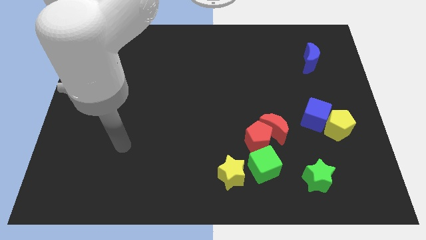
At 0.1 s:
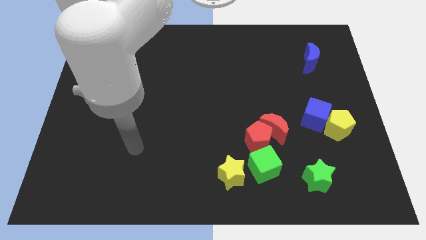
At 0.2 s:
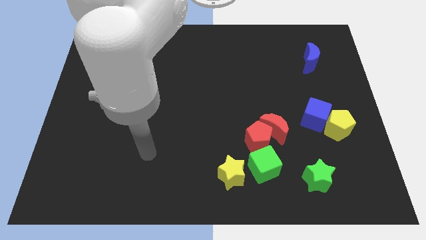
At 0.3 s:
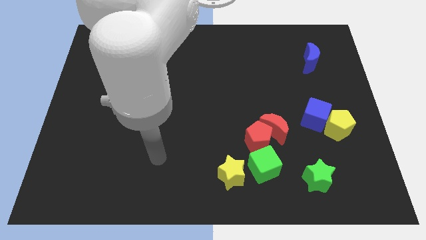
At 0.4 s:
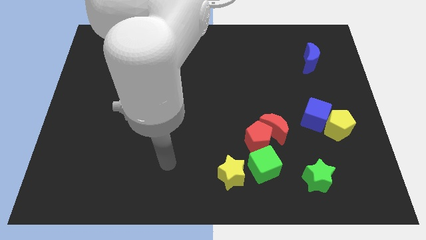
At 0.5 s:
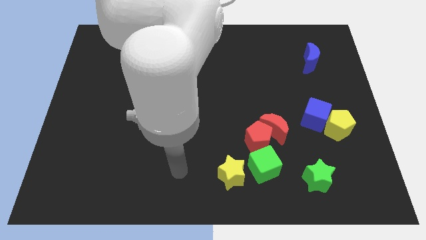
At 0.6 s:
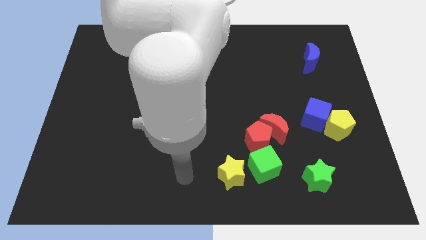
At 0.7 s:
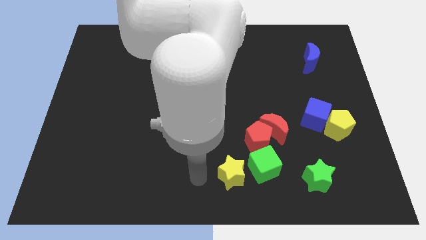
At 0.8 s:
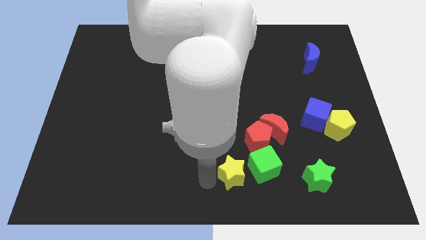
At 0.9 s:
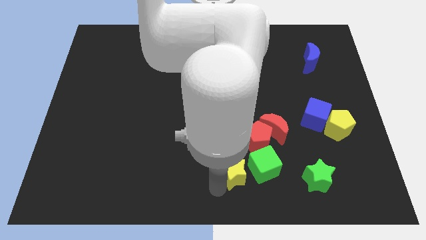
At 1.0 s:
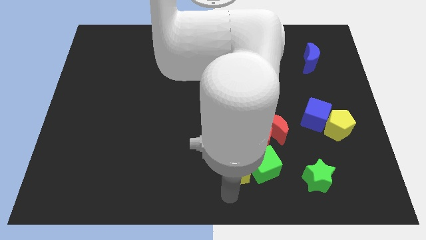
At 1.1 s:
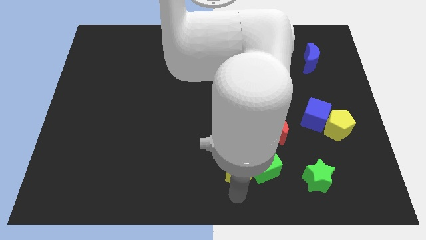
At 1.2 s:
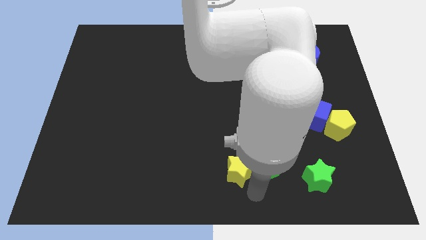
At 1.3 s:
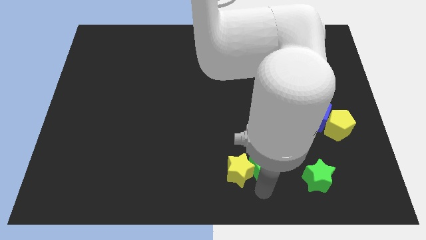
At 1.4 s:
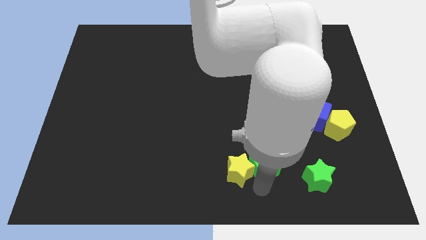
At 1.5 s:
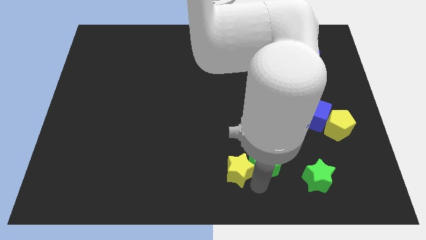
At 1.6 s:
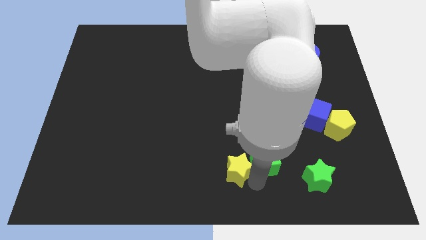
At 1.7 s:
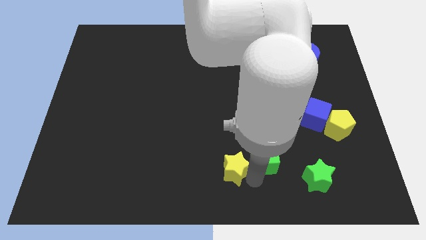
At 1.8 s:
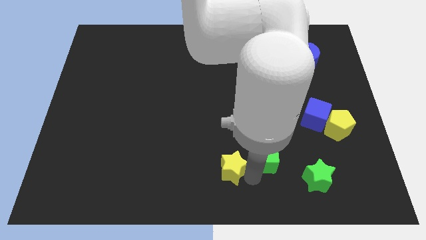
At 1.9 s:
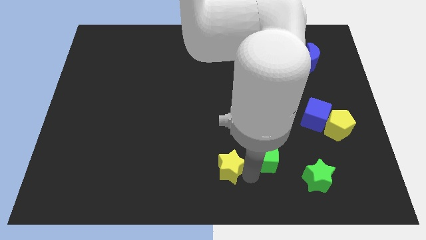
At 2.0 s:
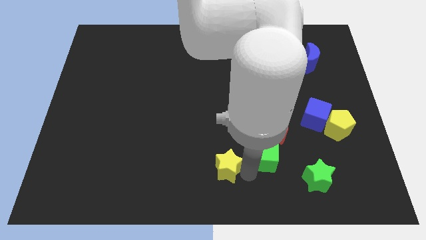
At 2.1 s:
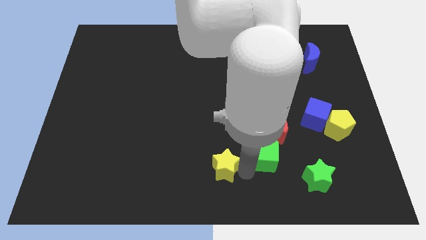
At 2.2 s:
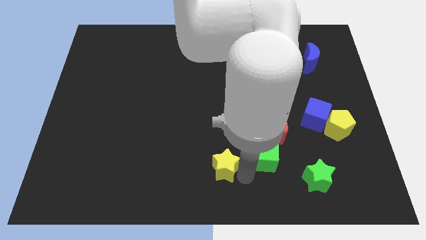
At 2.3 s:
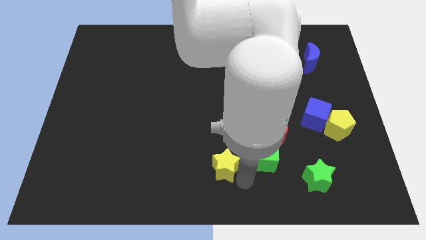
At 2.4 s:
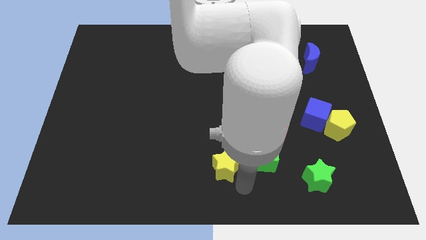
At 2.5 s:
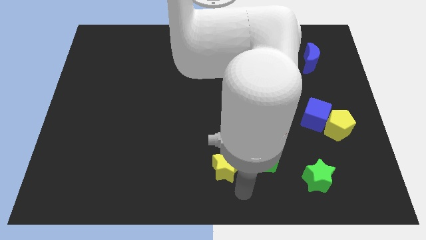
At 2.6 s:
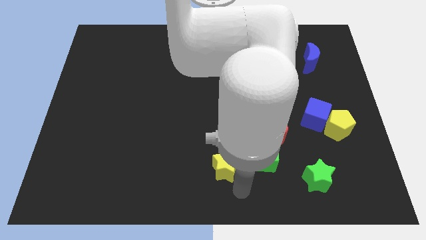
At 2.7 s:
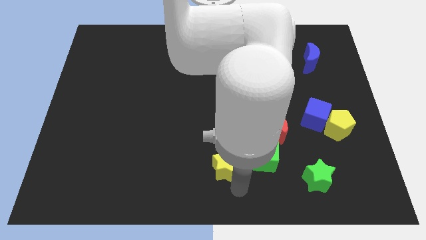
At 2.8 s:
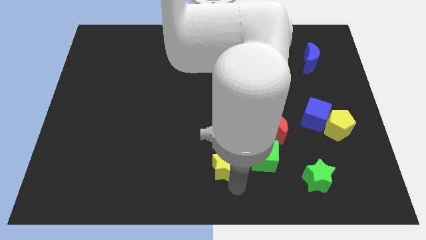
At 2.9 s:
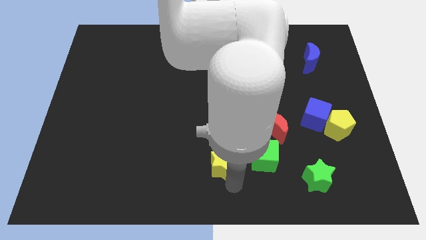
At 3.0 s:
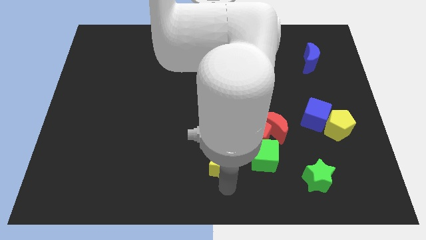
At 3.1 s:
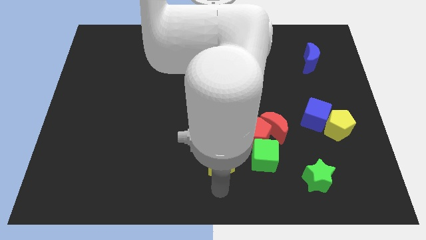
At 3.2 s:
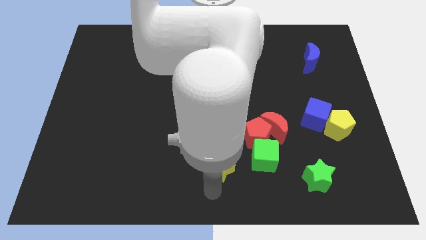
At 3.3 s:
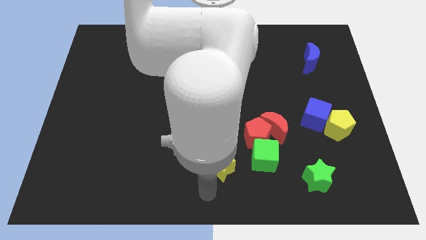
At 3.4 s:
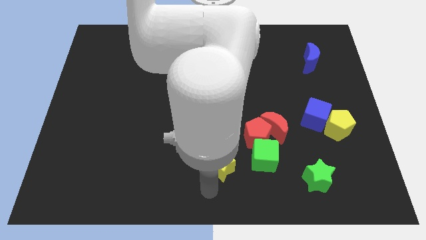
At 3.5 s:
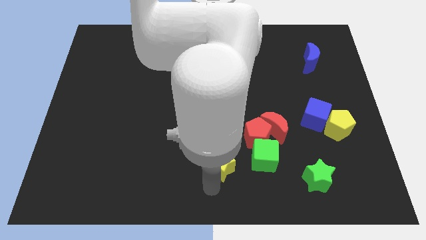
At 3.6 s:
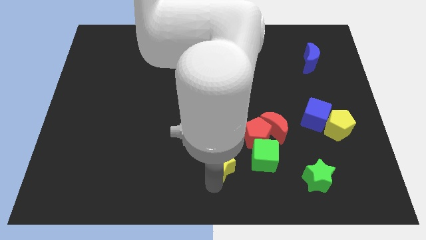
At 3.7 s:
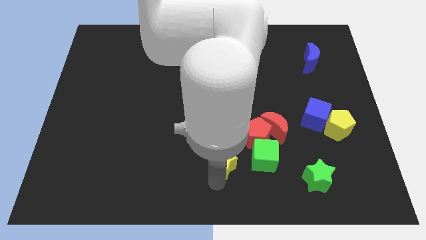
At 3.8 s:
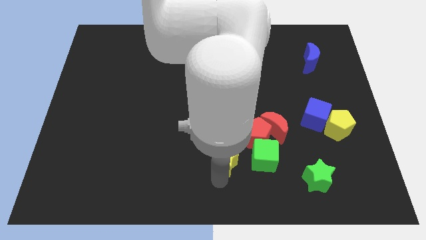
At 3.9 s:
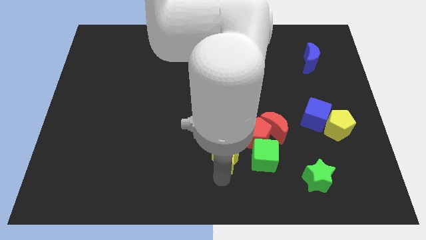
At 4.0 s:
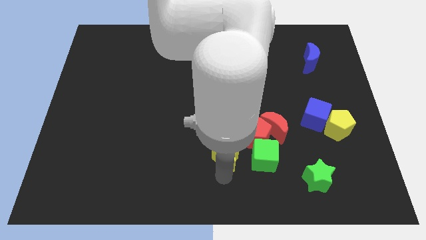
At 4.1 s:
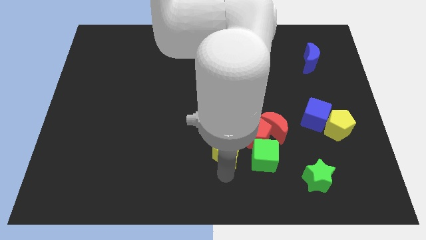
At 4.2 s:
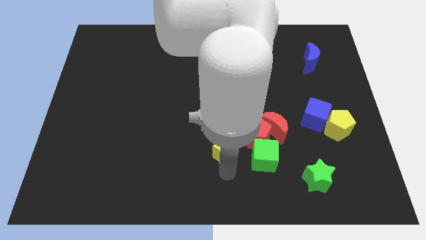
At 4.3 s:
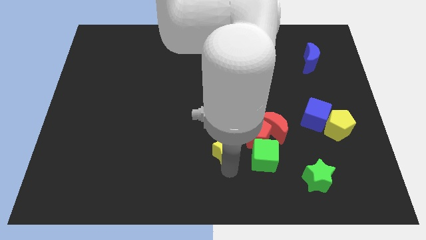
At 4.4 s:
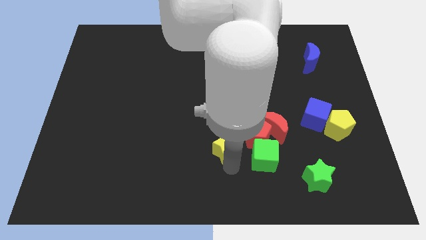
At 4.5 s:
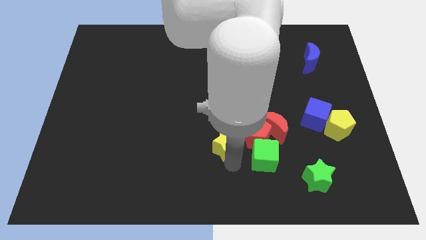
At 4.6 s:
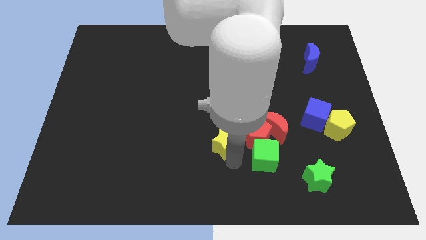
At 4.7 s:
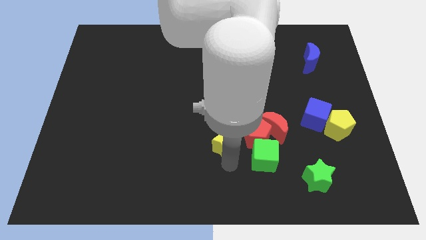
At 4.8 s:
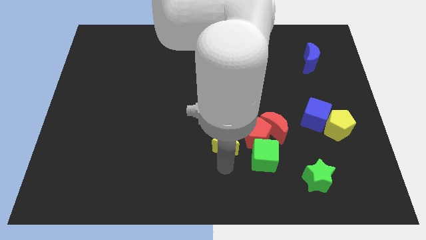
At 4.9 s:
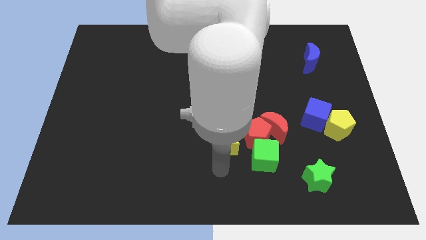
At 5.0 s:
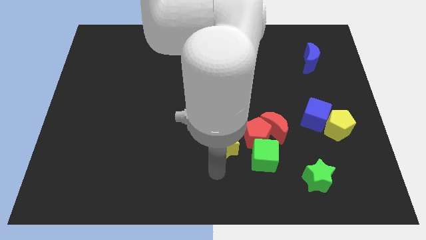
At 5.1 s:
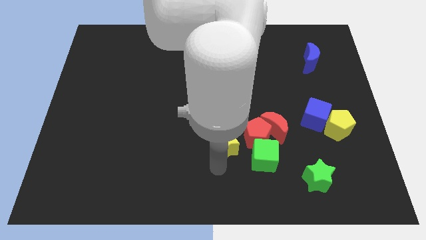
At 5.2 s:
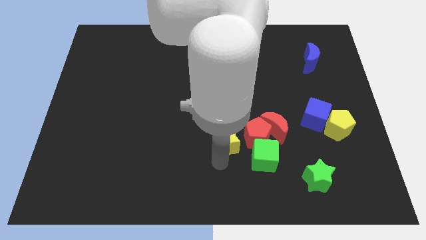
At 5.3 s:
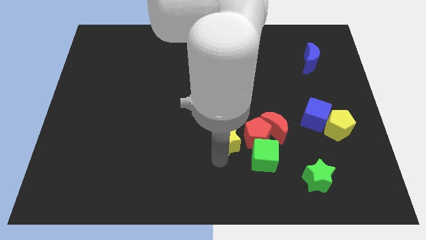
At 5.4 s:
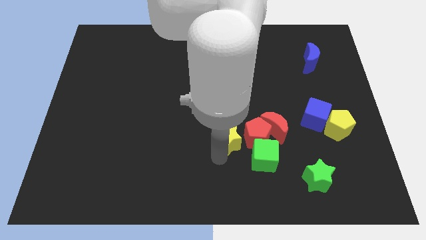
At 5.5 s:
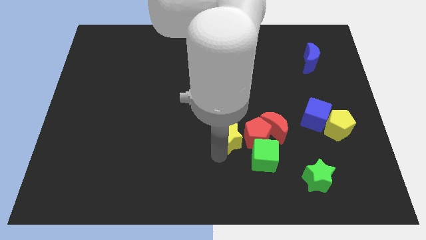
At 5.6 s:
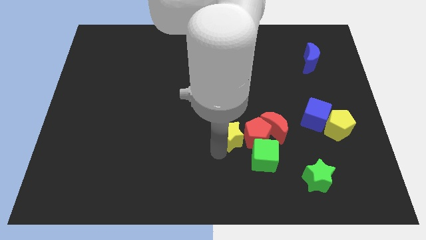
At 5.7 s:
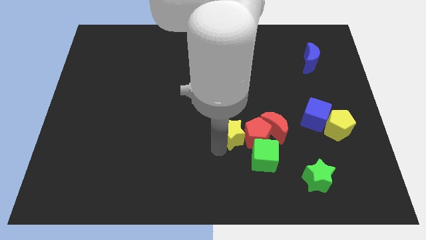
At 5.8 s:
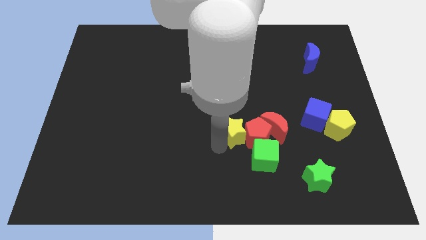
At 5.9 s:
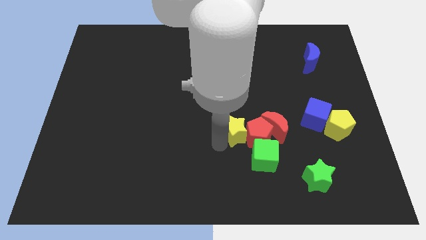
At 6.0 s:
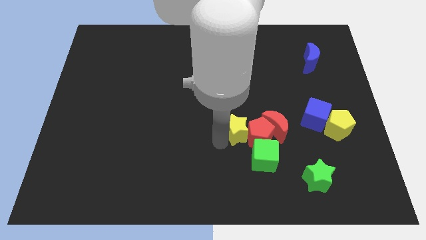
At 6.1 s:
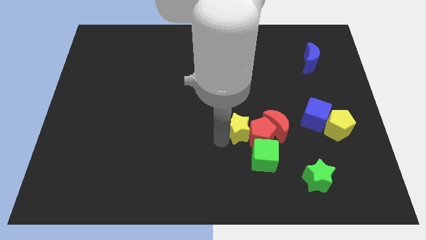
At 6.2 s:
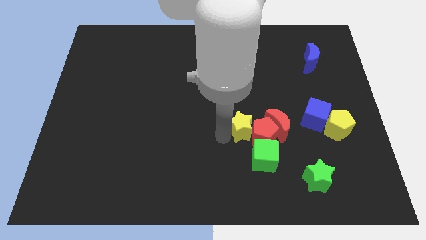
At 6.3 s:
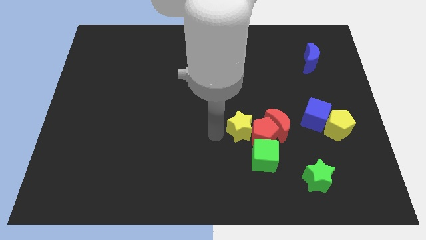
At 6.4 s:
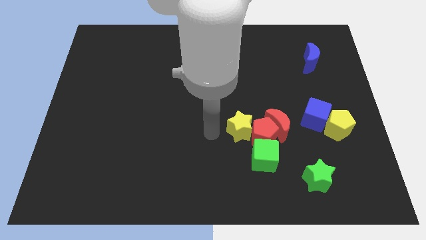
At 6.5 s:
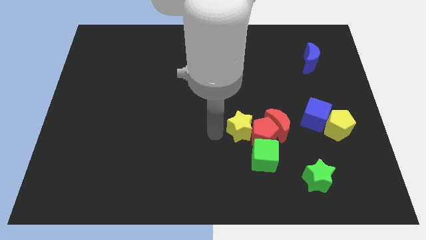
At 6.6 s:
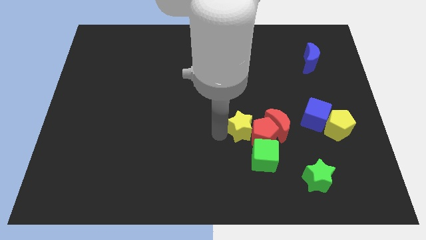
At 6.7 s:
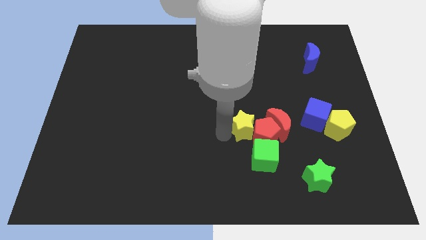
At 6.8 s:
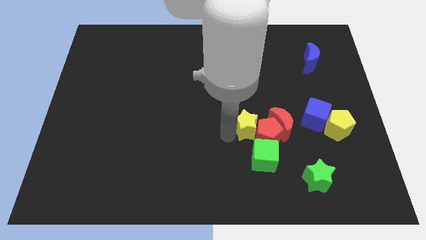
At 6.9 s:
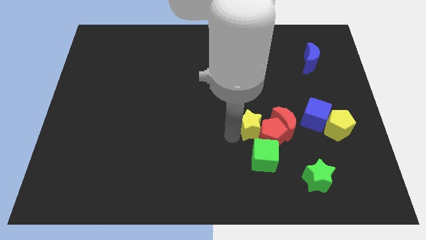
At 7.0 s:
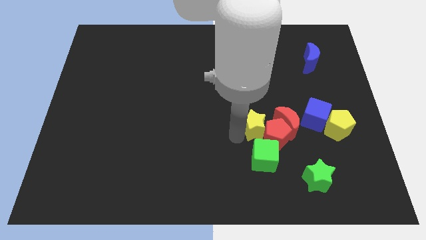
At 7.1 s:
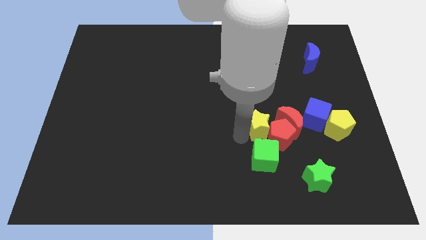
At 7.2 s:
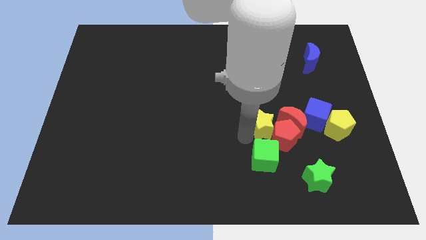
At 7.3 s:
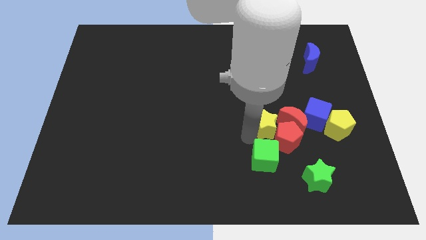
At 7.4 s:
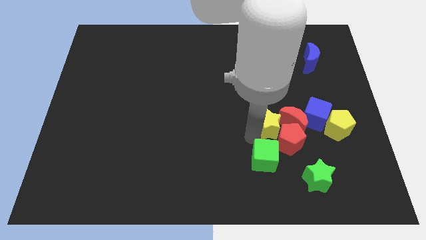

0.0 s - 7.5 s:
slide the yellow star next to the red moon

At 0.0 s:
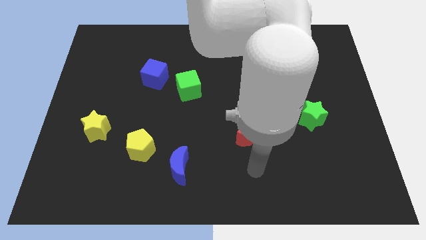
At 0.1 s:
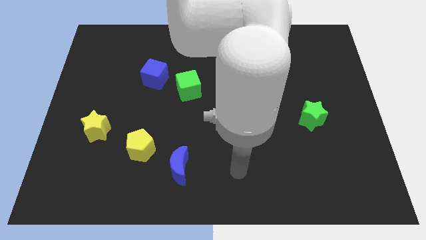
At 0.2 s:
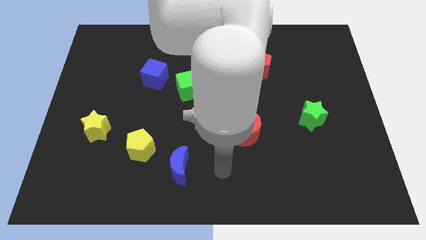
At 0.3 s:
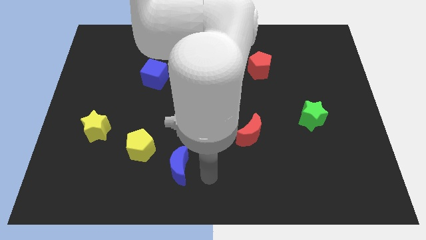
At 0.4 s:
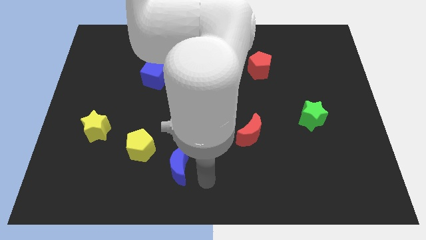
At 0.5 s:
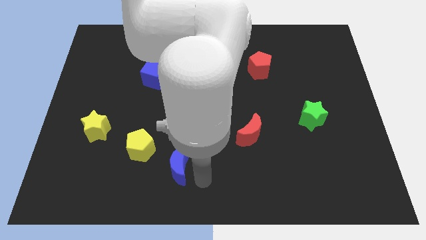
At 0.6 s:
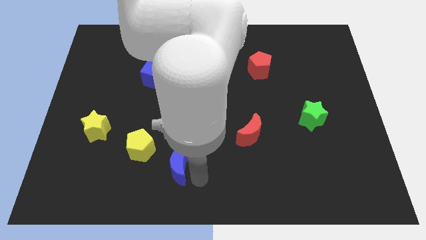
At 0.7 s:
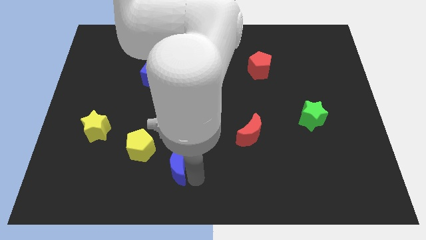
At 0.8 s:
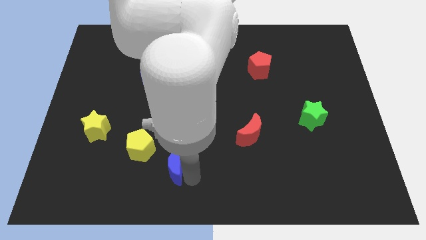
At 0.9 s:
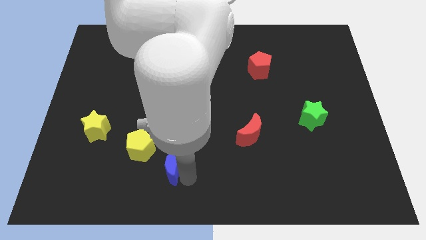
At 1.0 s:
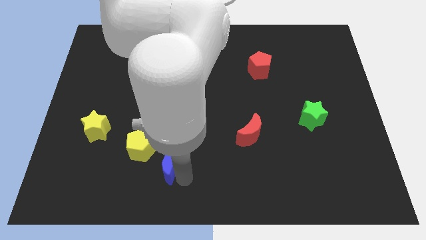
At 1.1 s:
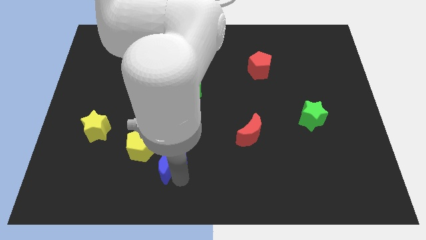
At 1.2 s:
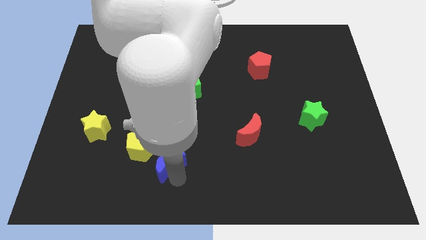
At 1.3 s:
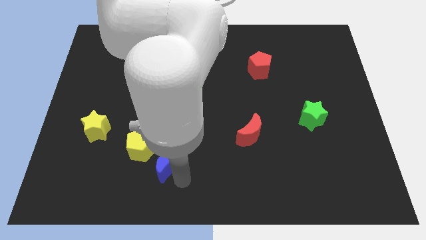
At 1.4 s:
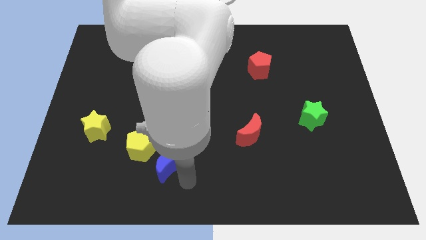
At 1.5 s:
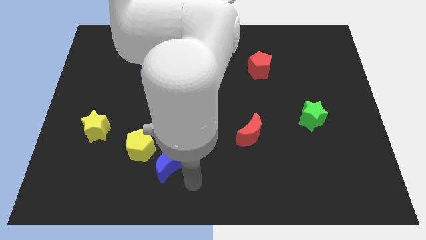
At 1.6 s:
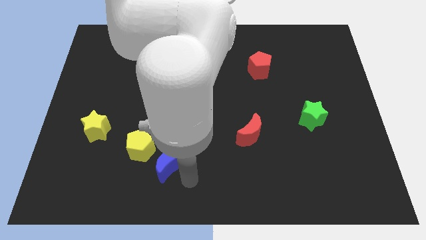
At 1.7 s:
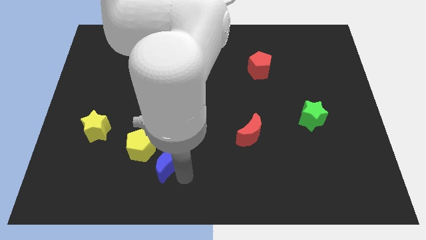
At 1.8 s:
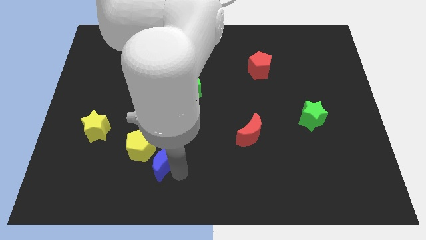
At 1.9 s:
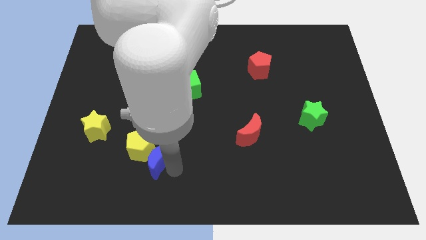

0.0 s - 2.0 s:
push the blue moon to the yellow pentagon
